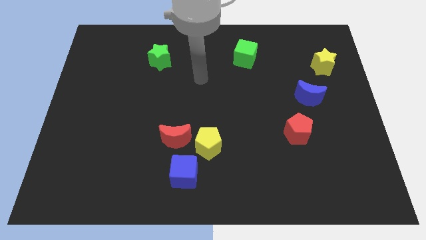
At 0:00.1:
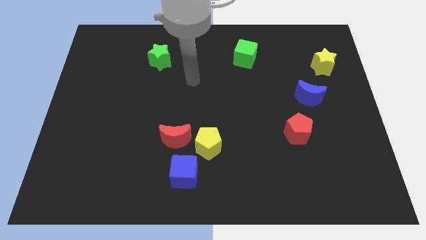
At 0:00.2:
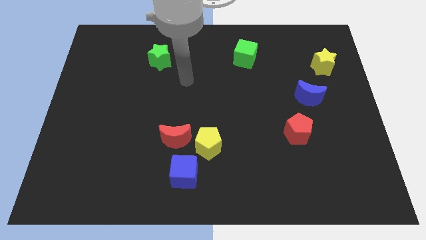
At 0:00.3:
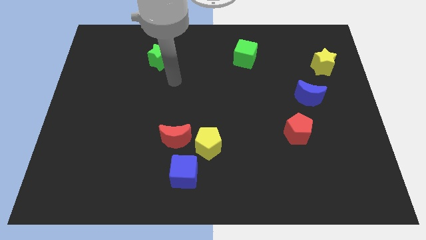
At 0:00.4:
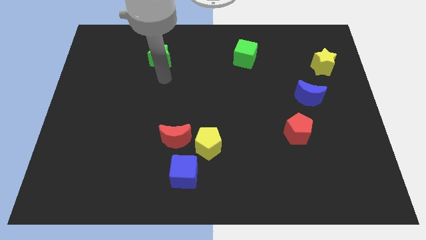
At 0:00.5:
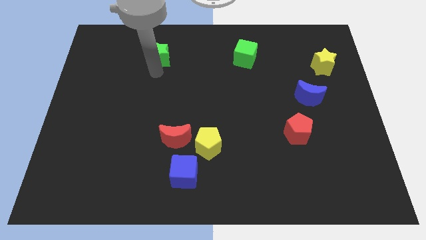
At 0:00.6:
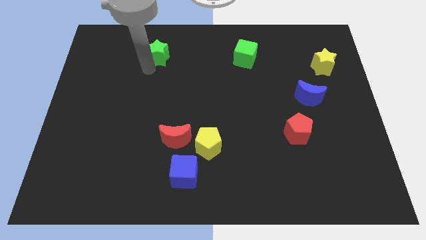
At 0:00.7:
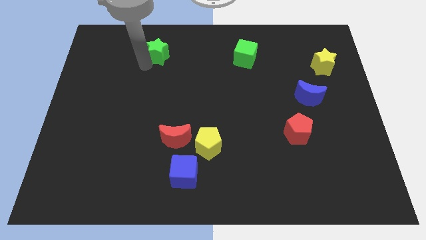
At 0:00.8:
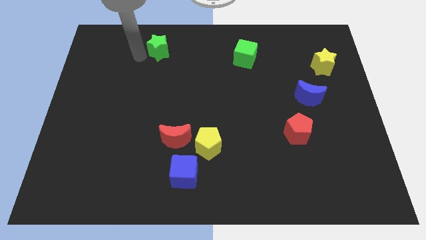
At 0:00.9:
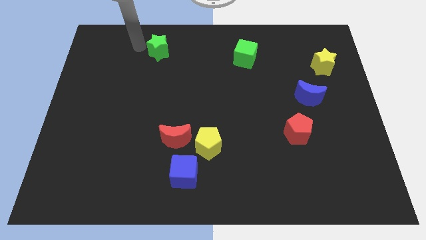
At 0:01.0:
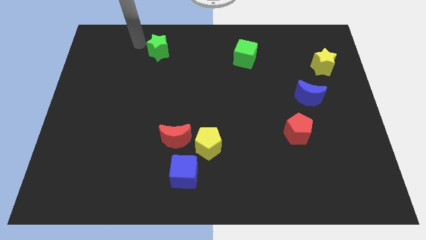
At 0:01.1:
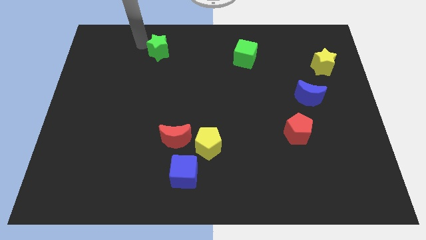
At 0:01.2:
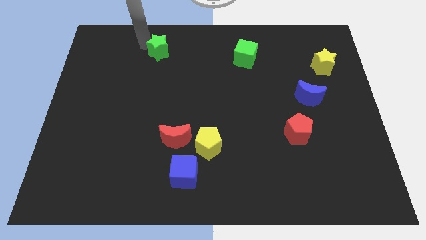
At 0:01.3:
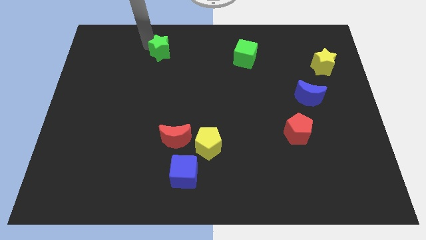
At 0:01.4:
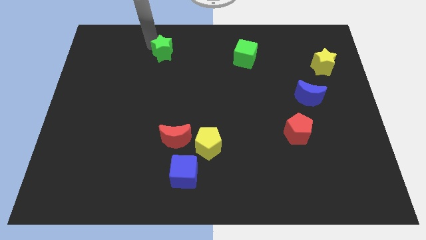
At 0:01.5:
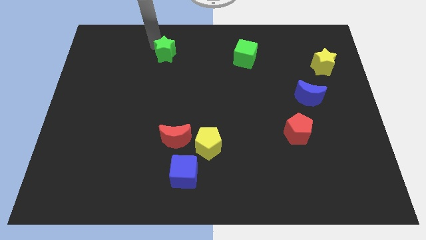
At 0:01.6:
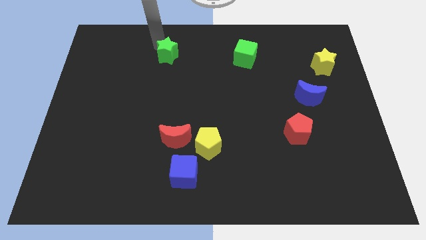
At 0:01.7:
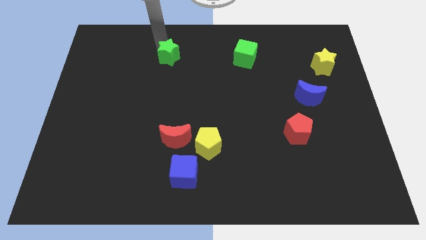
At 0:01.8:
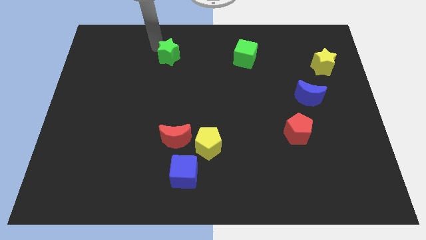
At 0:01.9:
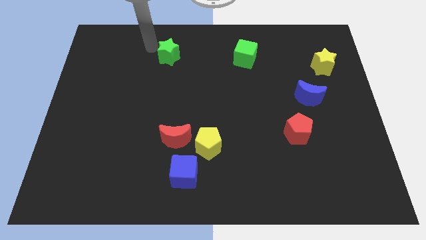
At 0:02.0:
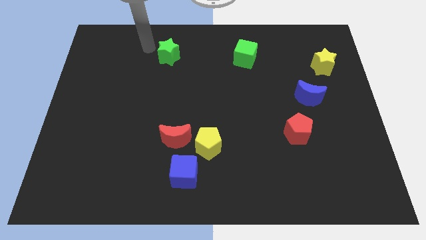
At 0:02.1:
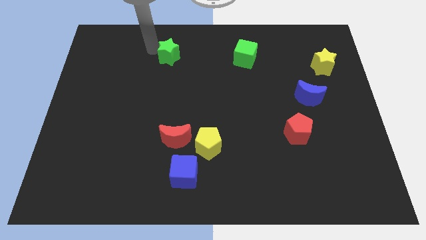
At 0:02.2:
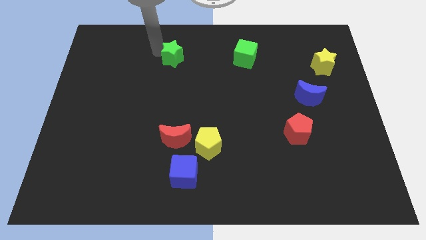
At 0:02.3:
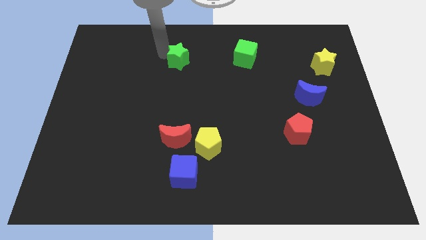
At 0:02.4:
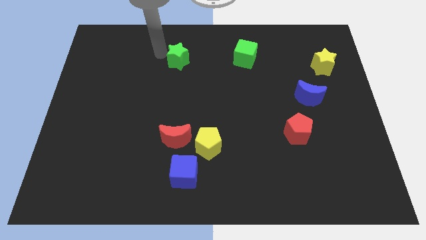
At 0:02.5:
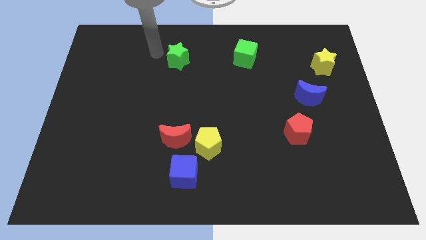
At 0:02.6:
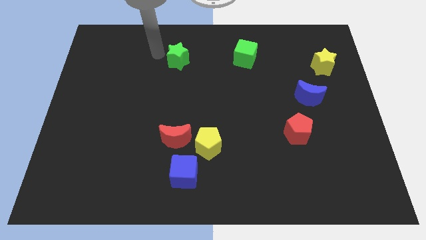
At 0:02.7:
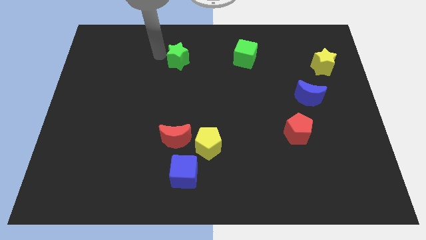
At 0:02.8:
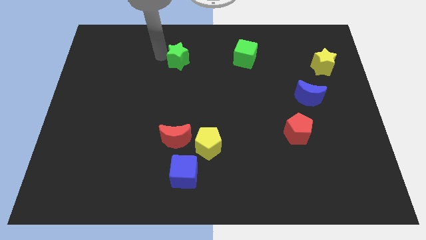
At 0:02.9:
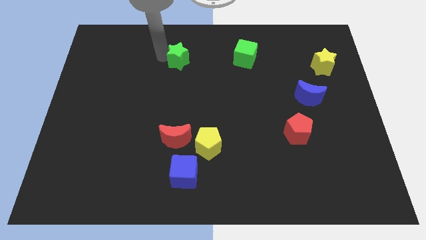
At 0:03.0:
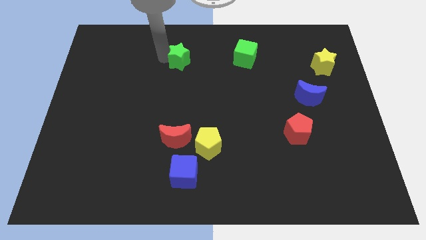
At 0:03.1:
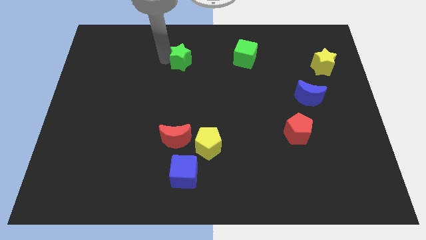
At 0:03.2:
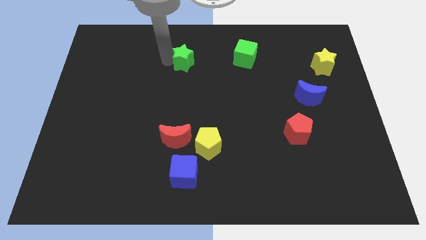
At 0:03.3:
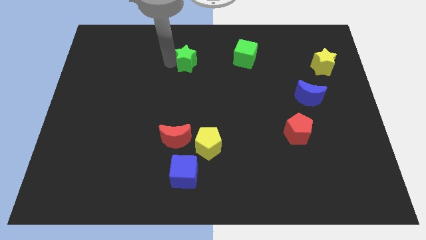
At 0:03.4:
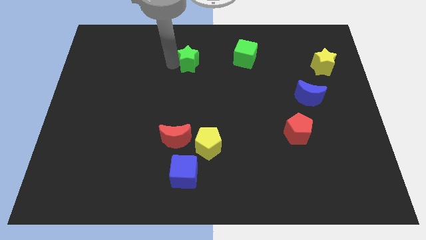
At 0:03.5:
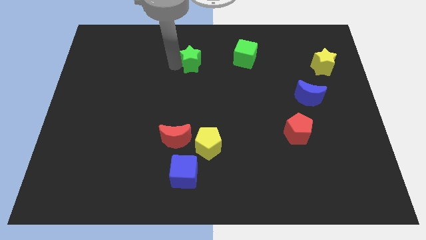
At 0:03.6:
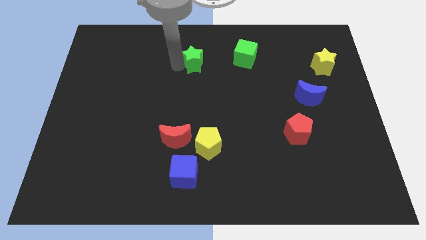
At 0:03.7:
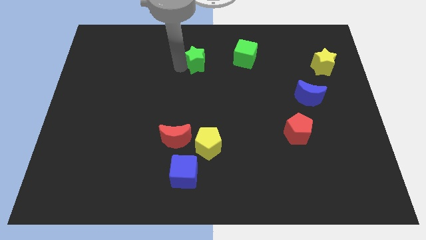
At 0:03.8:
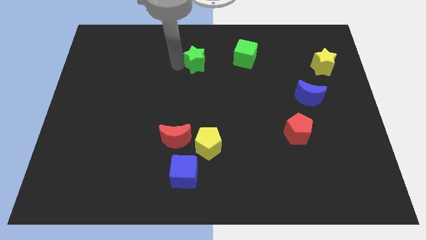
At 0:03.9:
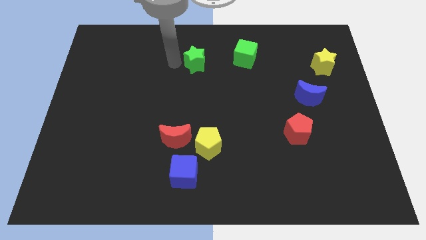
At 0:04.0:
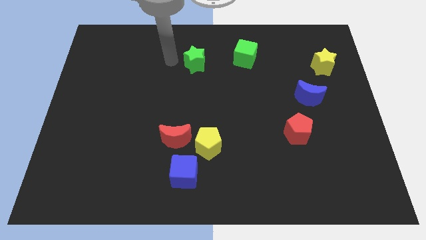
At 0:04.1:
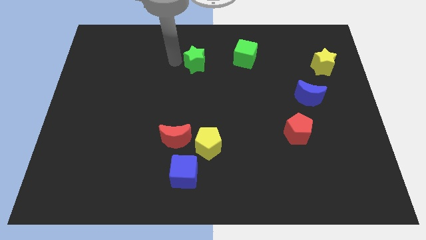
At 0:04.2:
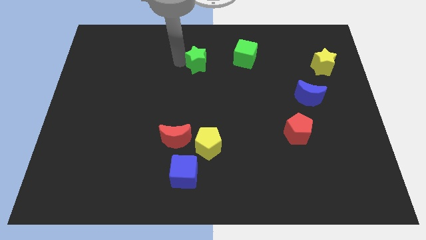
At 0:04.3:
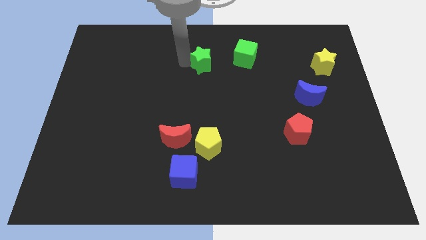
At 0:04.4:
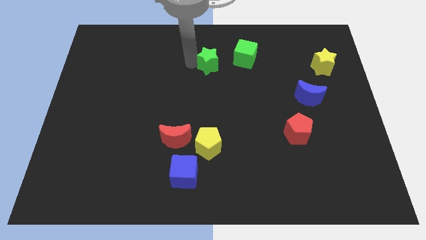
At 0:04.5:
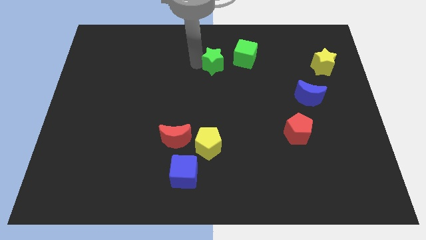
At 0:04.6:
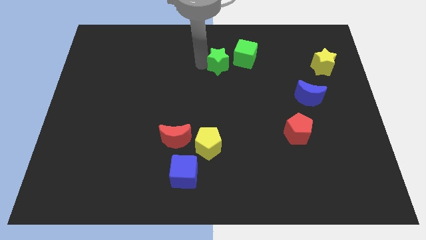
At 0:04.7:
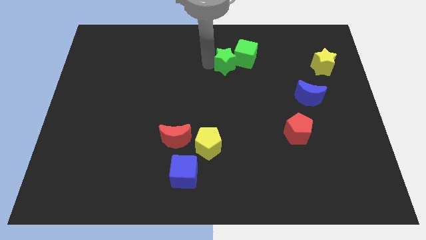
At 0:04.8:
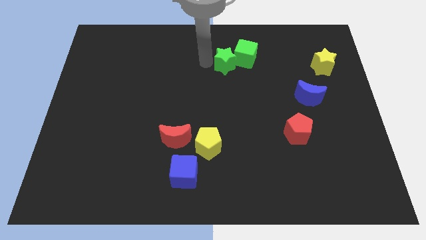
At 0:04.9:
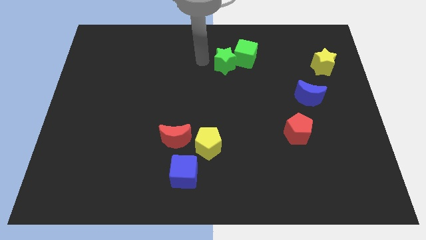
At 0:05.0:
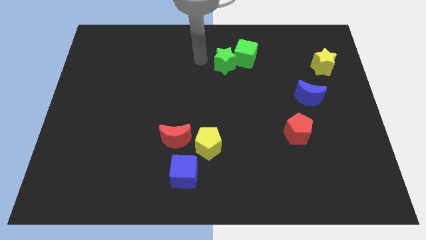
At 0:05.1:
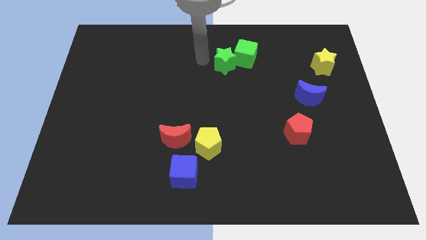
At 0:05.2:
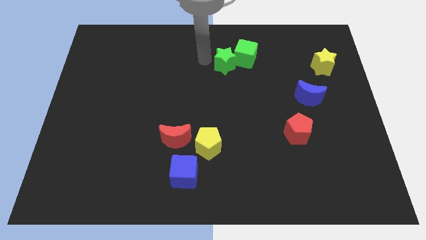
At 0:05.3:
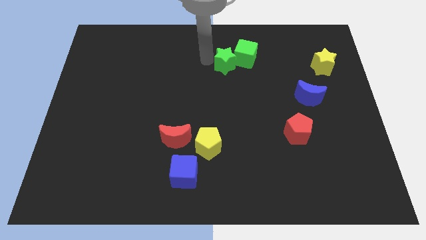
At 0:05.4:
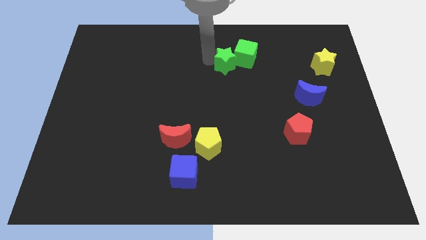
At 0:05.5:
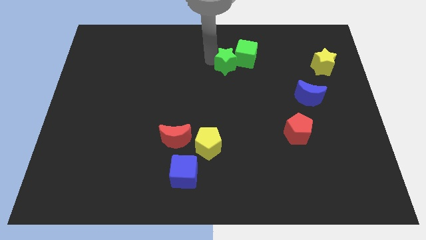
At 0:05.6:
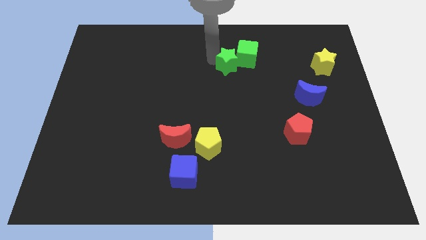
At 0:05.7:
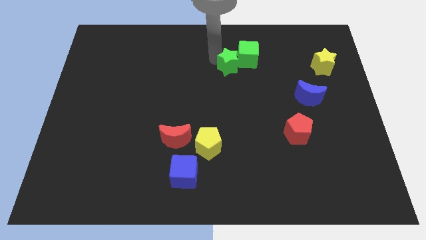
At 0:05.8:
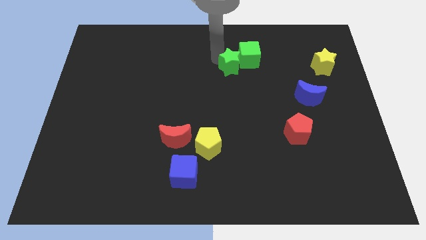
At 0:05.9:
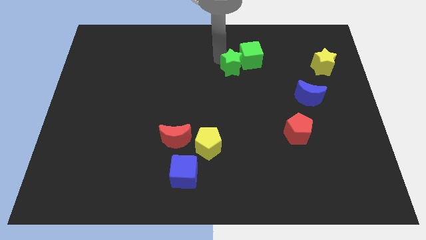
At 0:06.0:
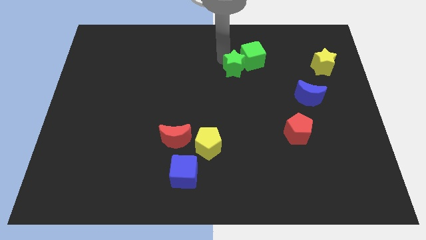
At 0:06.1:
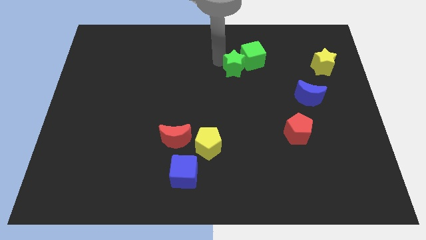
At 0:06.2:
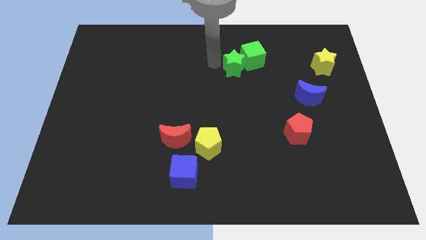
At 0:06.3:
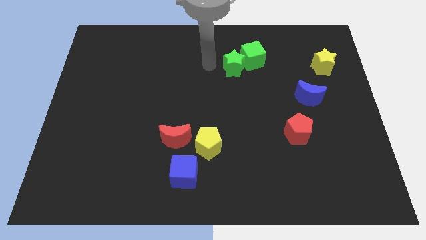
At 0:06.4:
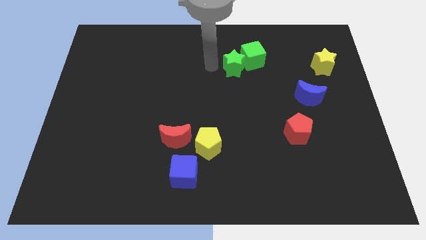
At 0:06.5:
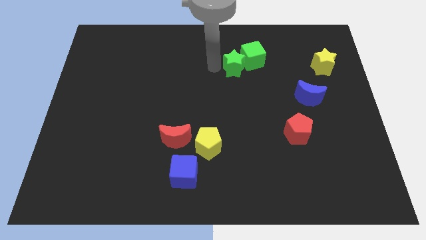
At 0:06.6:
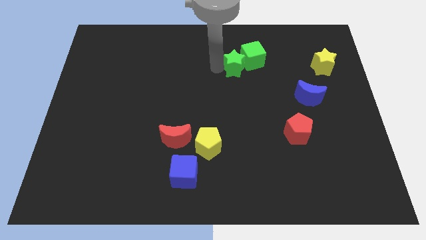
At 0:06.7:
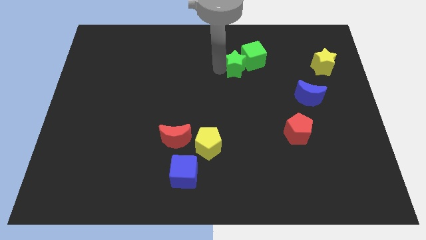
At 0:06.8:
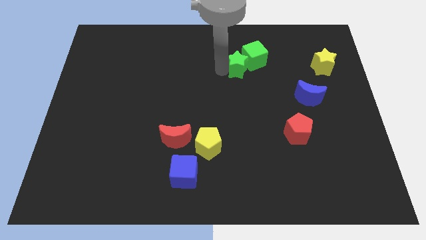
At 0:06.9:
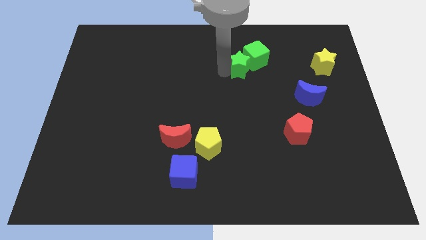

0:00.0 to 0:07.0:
move the green star right

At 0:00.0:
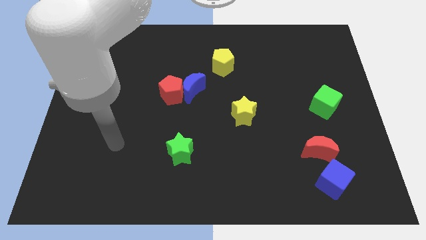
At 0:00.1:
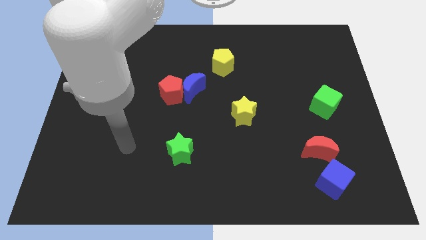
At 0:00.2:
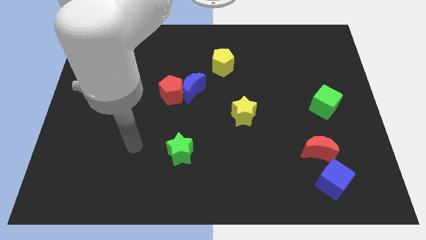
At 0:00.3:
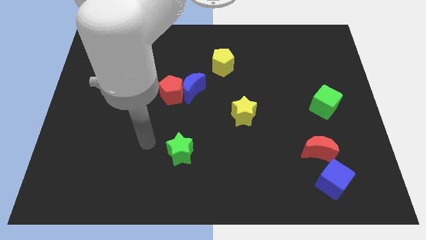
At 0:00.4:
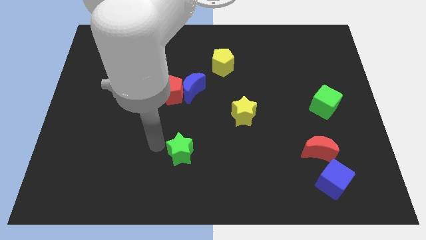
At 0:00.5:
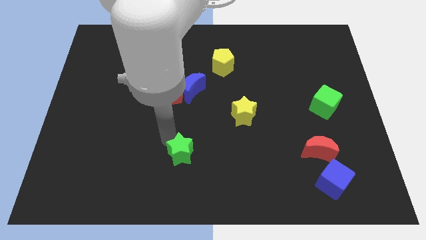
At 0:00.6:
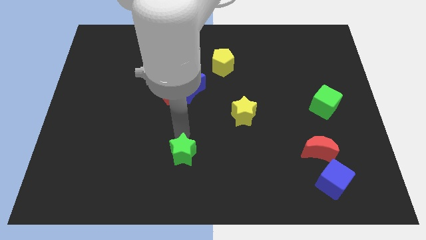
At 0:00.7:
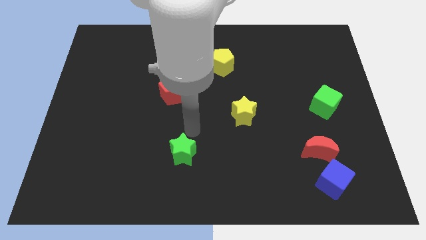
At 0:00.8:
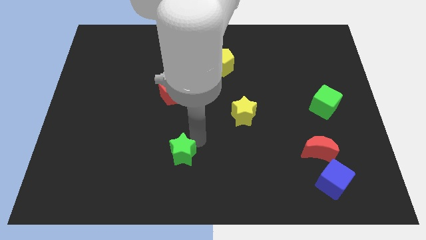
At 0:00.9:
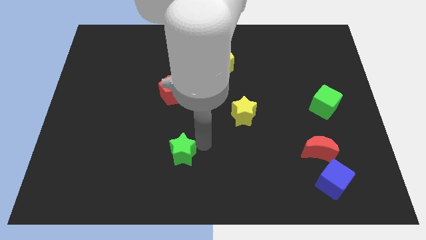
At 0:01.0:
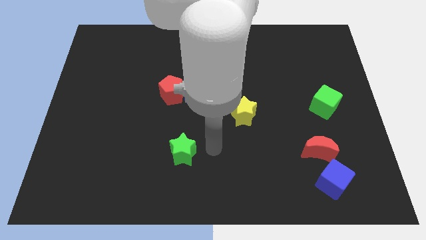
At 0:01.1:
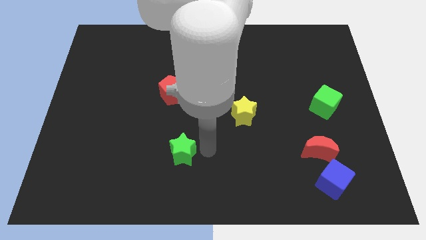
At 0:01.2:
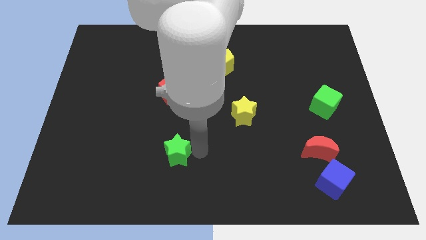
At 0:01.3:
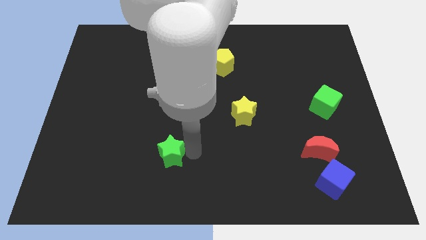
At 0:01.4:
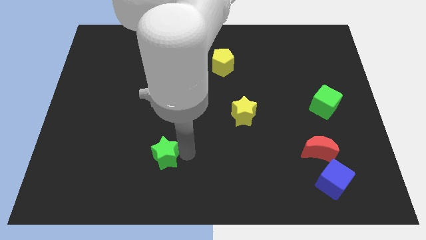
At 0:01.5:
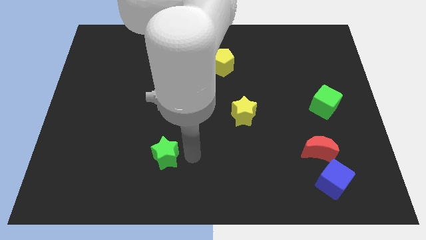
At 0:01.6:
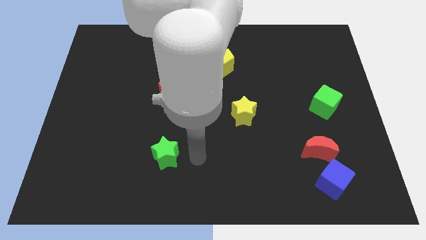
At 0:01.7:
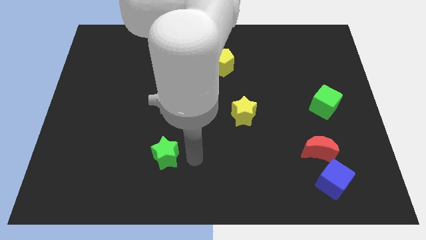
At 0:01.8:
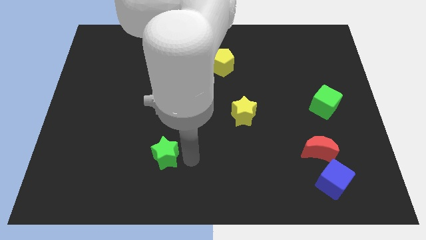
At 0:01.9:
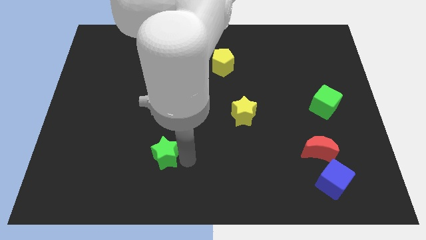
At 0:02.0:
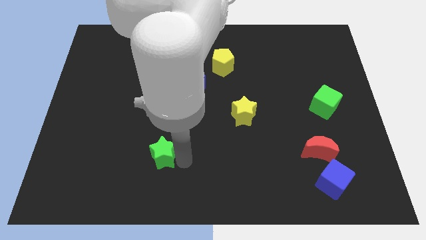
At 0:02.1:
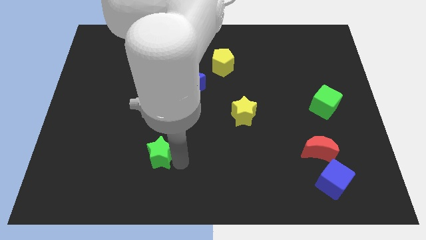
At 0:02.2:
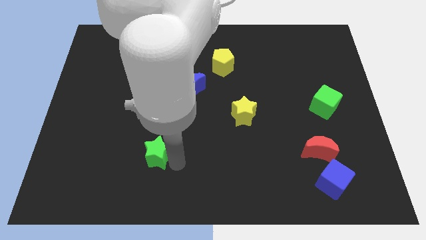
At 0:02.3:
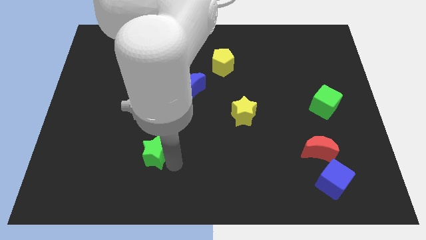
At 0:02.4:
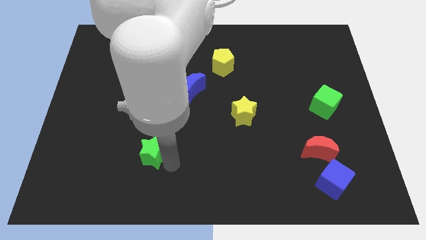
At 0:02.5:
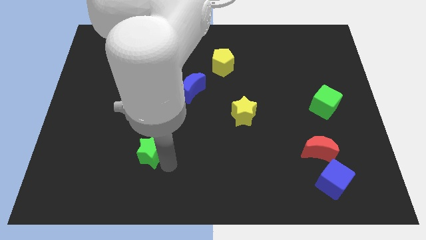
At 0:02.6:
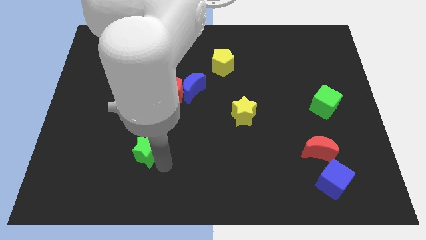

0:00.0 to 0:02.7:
push the green star a little left
